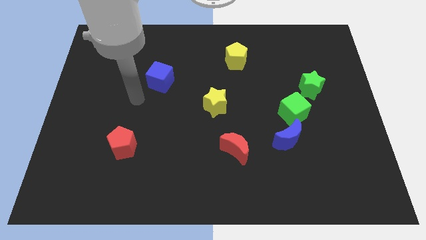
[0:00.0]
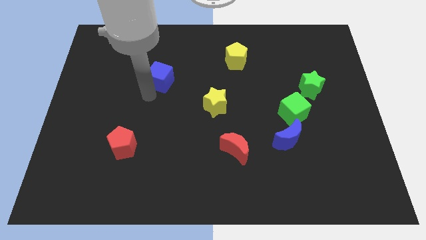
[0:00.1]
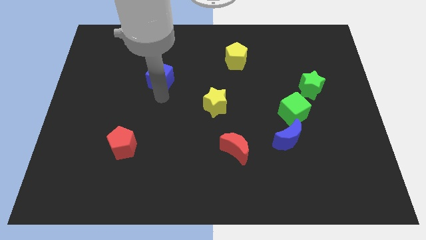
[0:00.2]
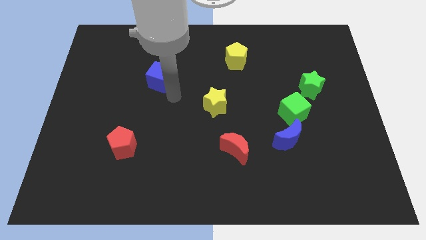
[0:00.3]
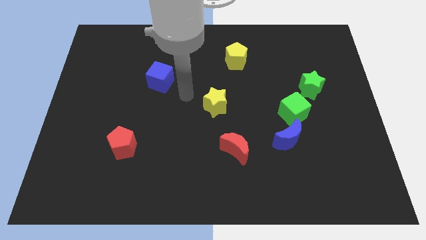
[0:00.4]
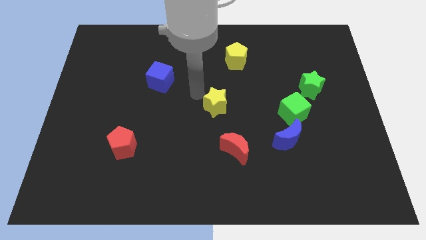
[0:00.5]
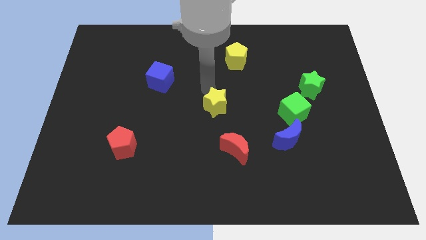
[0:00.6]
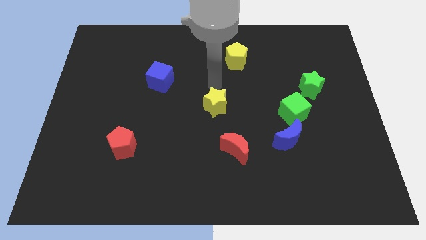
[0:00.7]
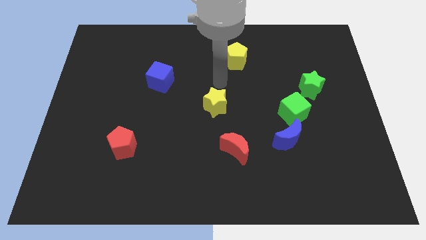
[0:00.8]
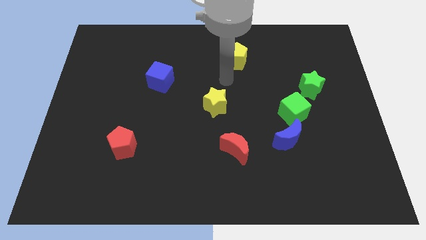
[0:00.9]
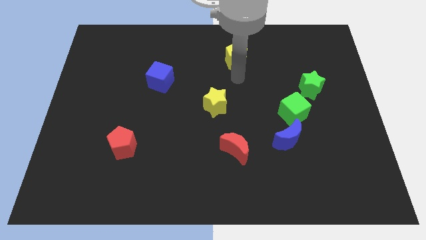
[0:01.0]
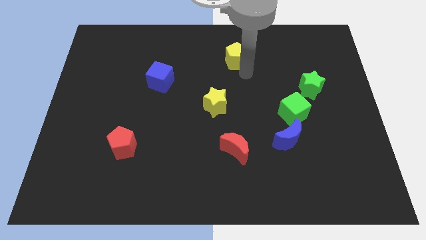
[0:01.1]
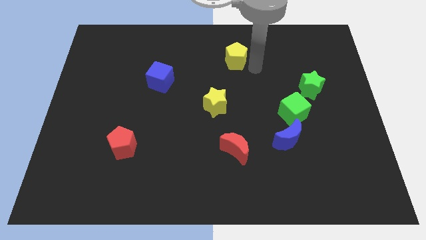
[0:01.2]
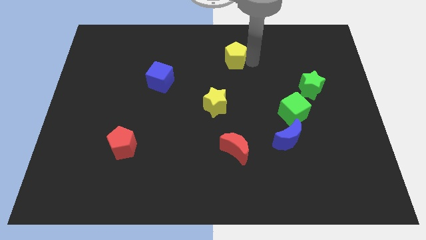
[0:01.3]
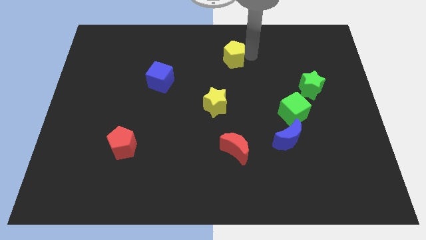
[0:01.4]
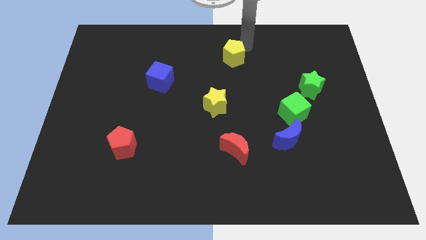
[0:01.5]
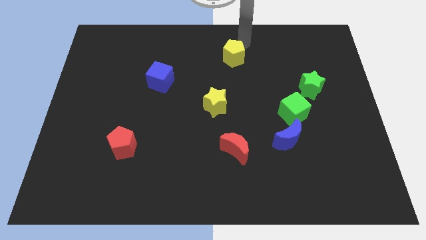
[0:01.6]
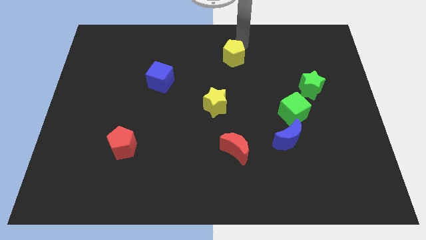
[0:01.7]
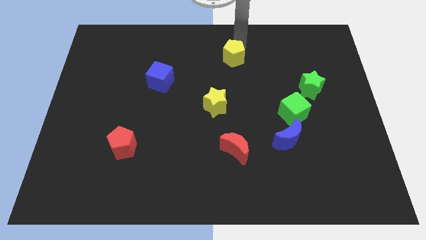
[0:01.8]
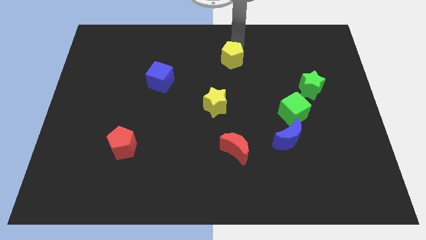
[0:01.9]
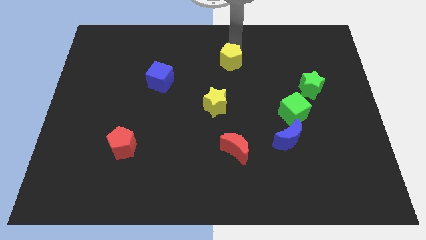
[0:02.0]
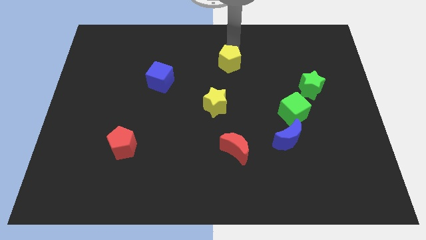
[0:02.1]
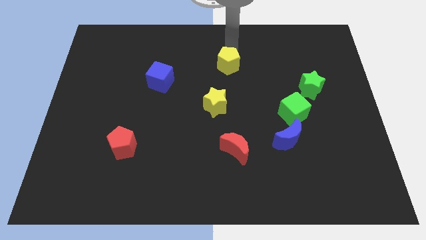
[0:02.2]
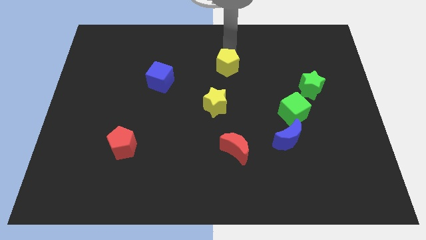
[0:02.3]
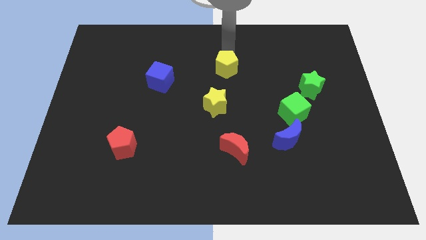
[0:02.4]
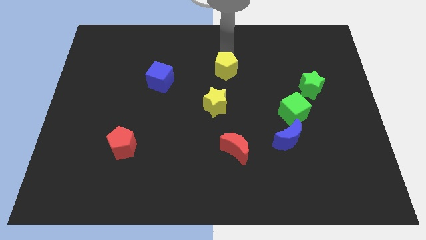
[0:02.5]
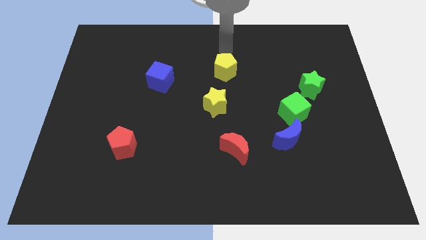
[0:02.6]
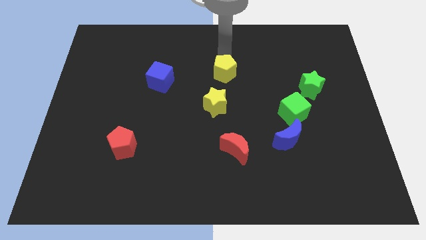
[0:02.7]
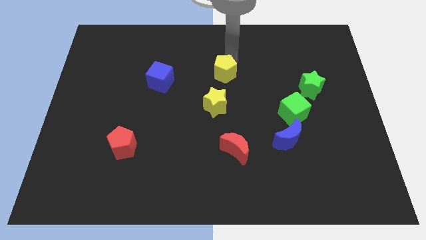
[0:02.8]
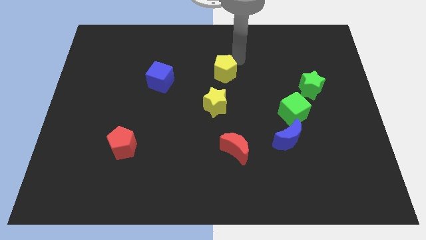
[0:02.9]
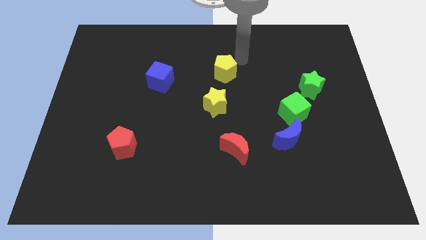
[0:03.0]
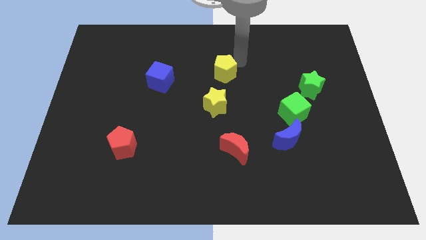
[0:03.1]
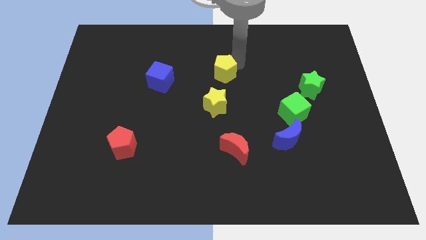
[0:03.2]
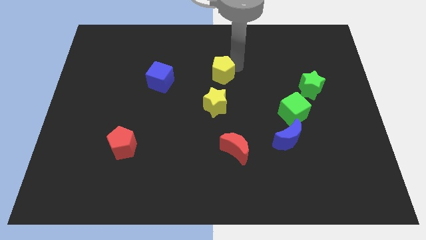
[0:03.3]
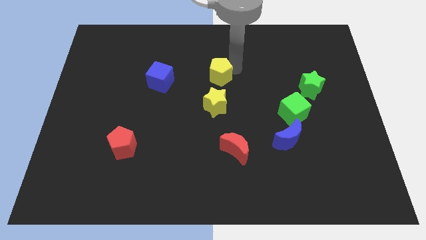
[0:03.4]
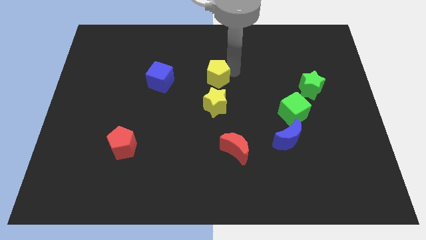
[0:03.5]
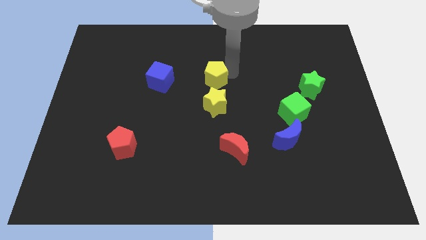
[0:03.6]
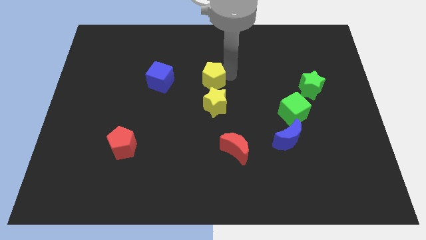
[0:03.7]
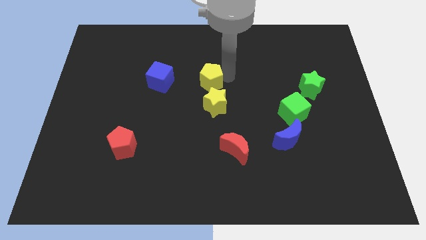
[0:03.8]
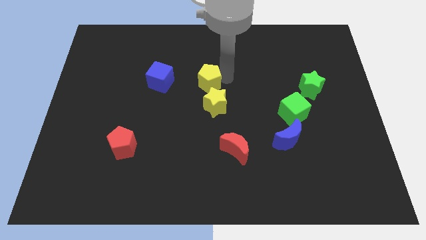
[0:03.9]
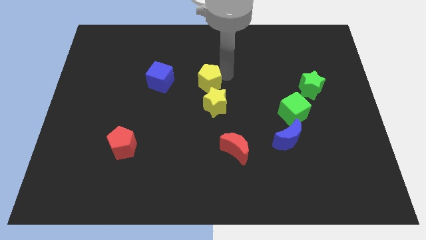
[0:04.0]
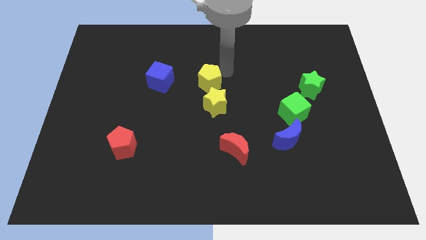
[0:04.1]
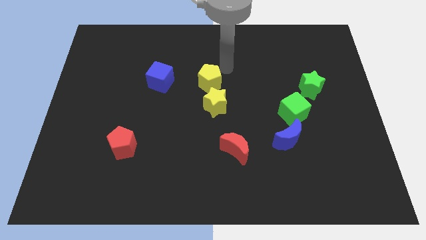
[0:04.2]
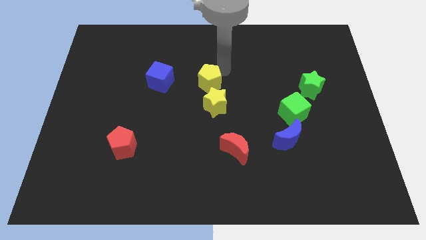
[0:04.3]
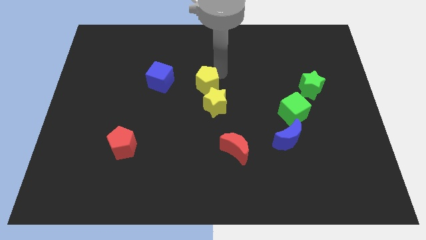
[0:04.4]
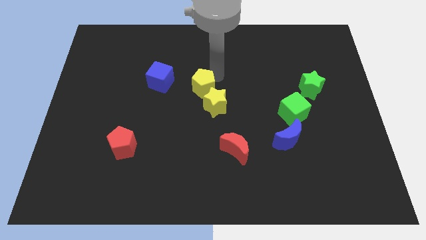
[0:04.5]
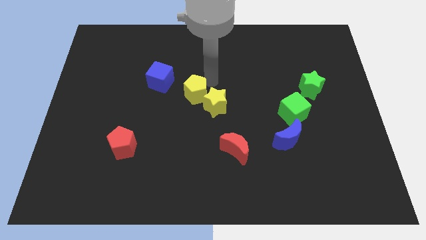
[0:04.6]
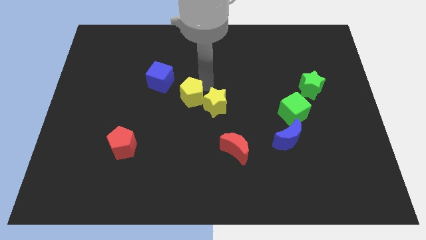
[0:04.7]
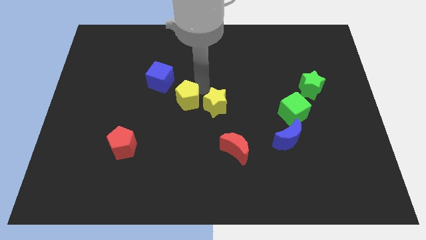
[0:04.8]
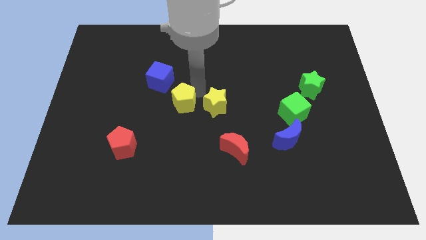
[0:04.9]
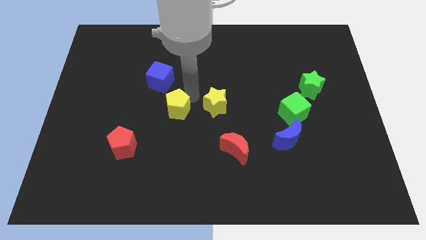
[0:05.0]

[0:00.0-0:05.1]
move the yellow pentagon diagonally downwards and left

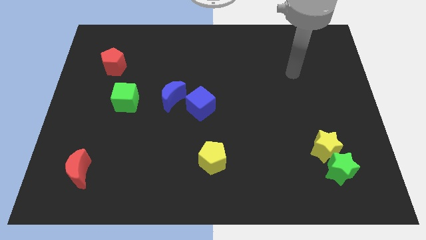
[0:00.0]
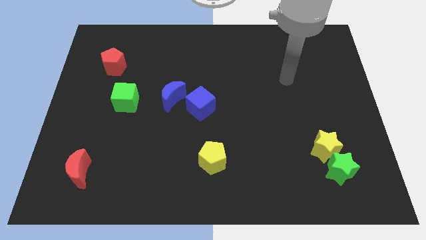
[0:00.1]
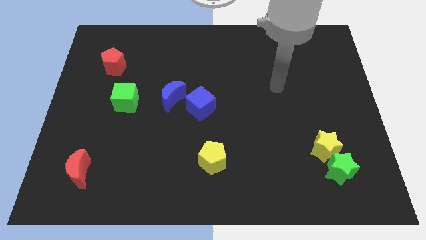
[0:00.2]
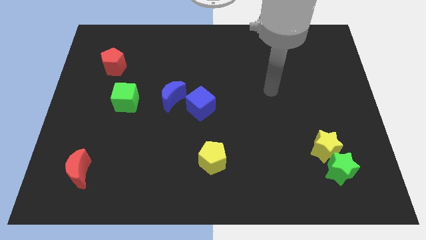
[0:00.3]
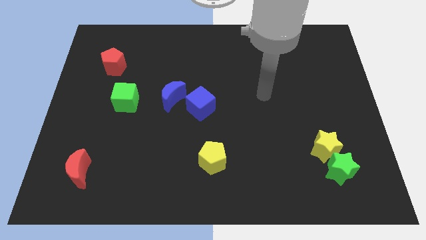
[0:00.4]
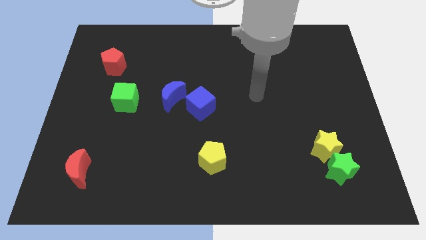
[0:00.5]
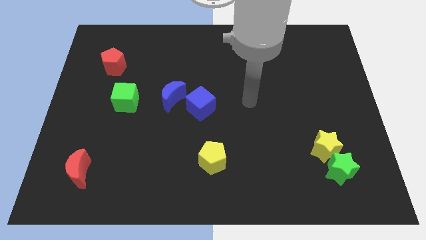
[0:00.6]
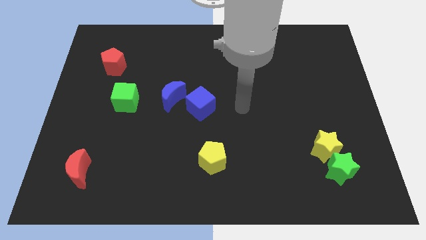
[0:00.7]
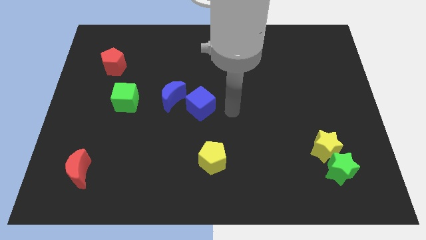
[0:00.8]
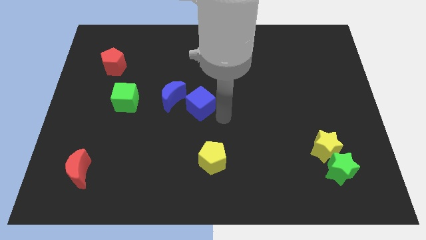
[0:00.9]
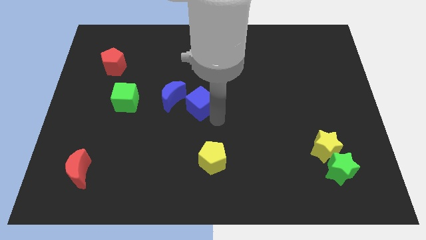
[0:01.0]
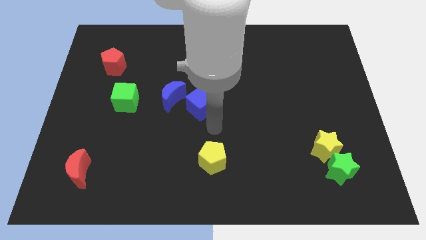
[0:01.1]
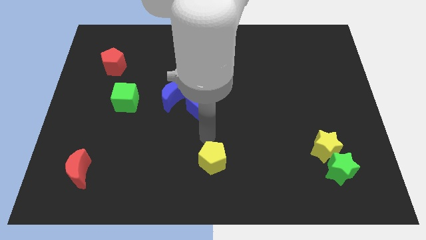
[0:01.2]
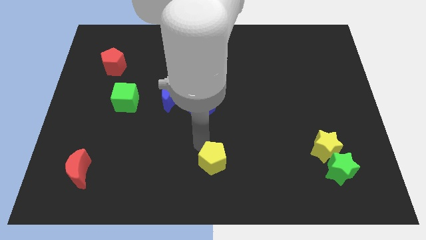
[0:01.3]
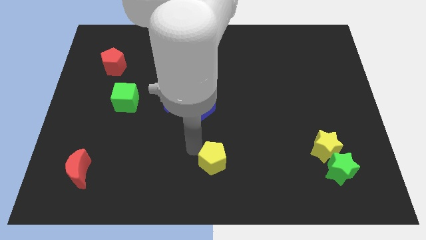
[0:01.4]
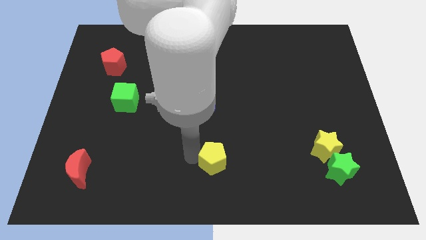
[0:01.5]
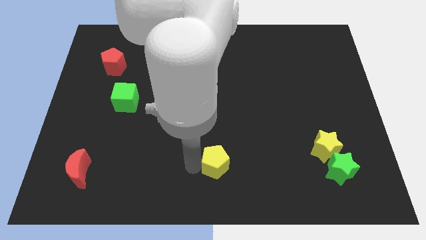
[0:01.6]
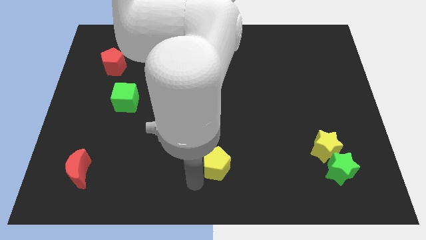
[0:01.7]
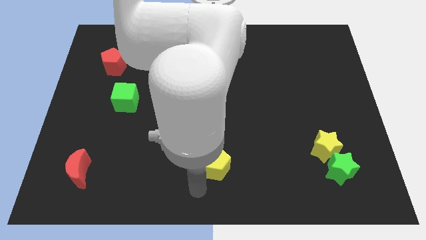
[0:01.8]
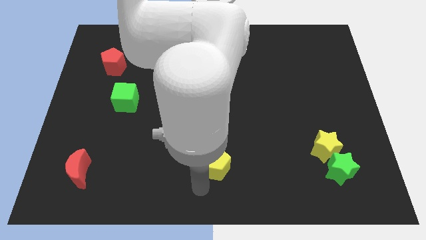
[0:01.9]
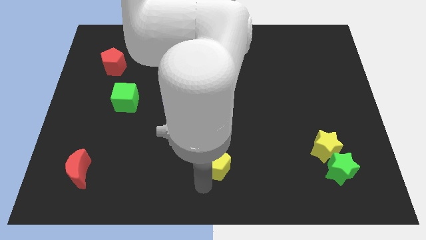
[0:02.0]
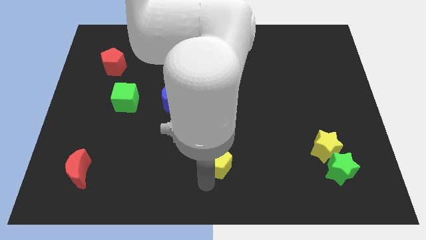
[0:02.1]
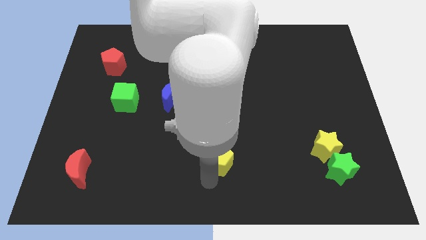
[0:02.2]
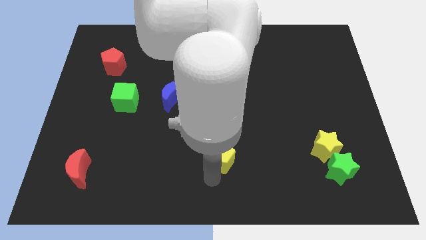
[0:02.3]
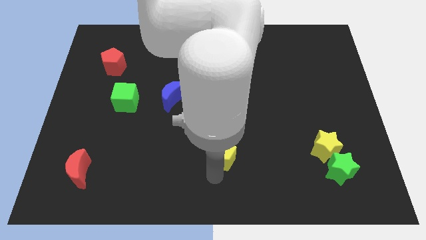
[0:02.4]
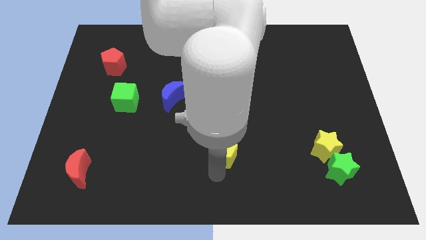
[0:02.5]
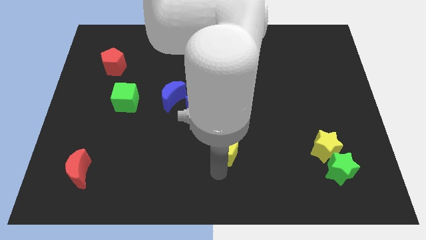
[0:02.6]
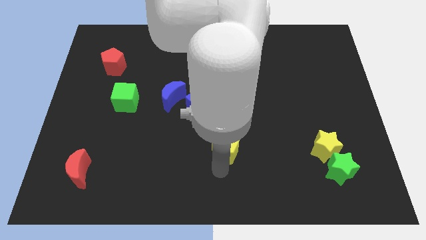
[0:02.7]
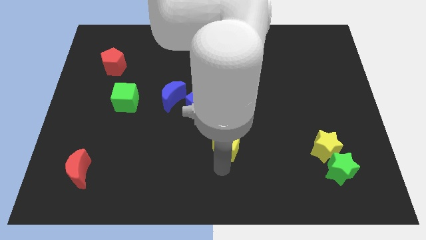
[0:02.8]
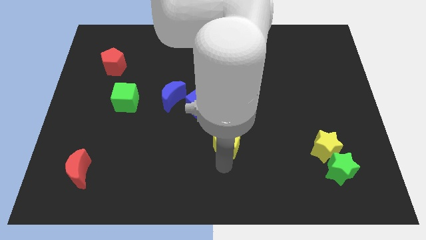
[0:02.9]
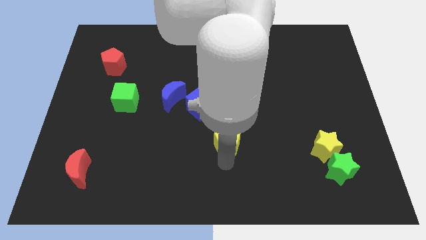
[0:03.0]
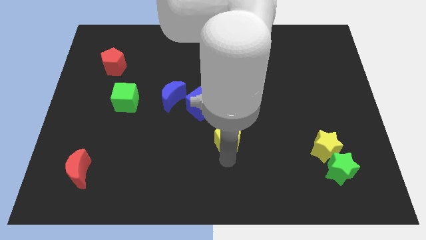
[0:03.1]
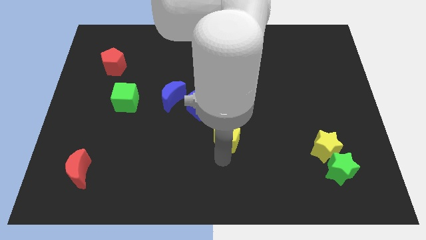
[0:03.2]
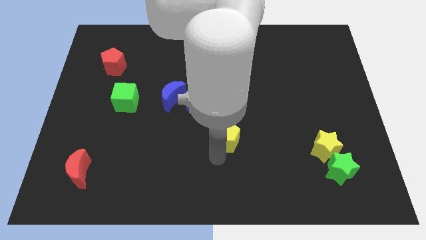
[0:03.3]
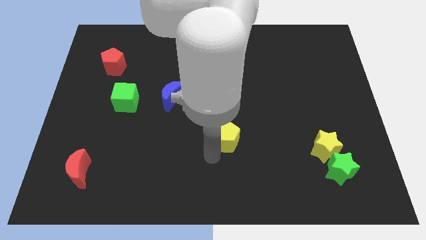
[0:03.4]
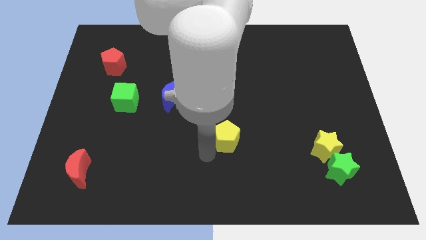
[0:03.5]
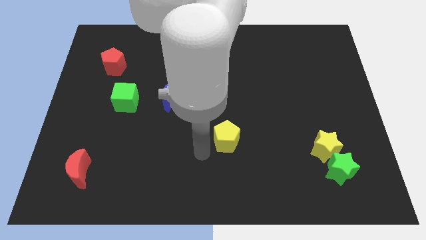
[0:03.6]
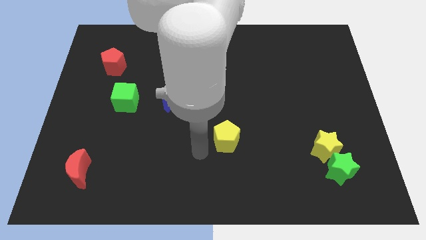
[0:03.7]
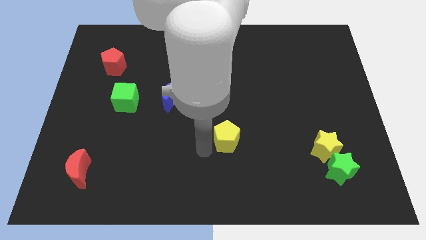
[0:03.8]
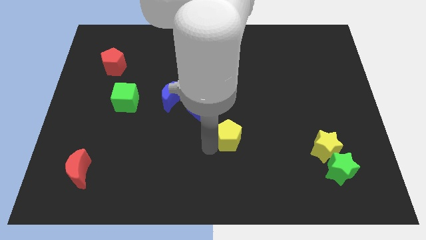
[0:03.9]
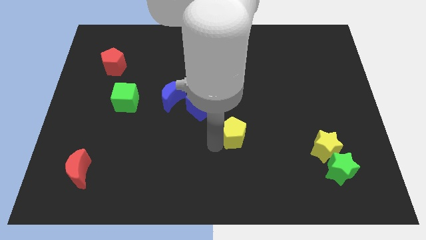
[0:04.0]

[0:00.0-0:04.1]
slightly push the yellow pentagon diagonally upwards and to the right
